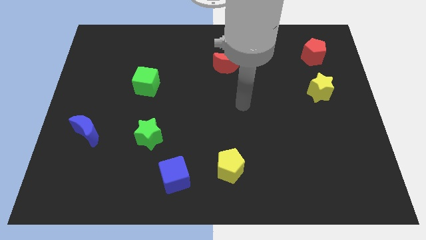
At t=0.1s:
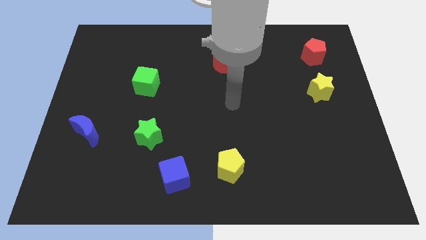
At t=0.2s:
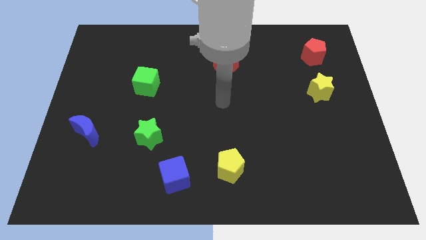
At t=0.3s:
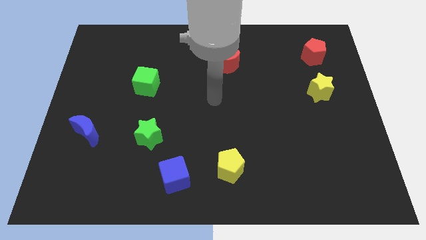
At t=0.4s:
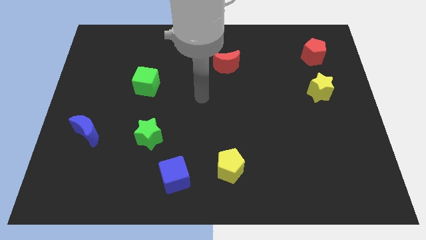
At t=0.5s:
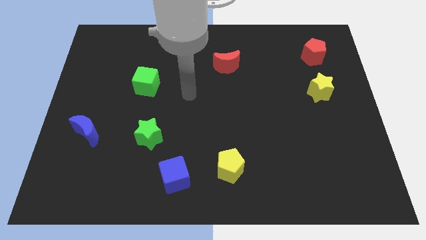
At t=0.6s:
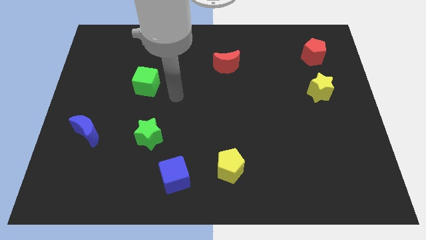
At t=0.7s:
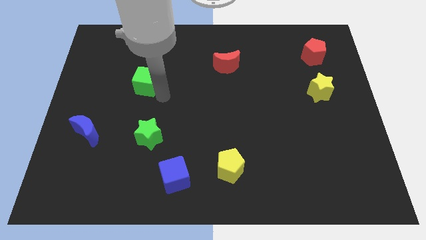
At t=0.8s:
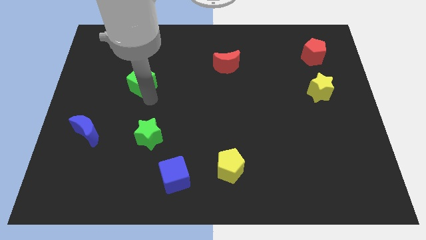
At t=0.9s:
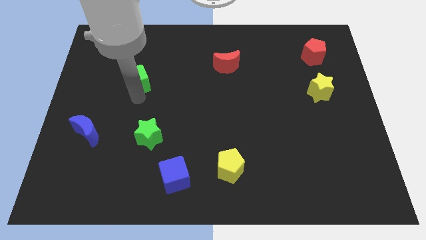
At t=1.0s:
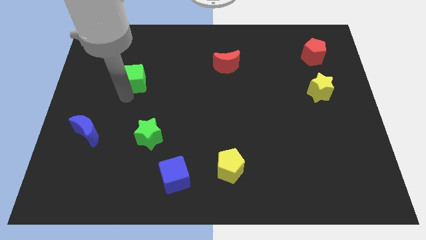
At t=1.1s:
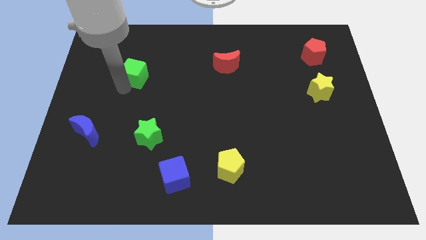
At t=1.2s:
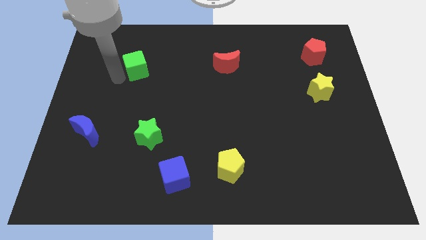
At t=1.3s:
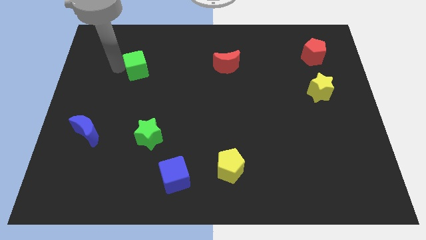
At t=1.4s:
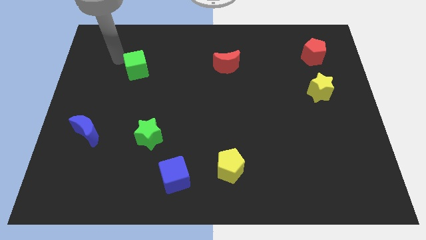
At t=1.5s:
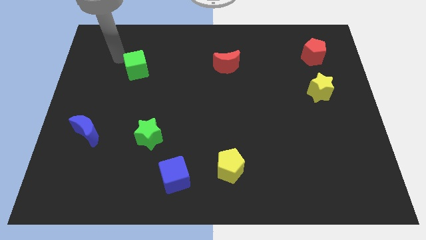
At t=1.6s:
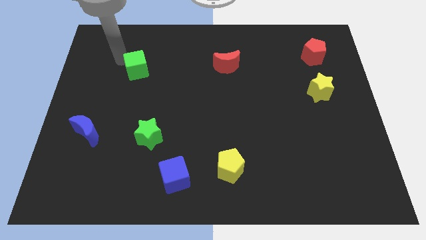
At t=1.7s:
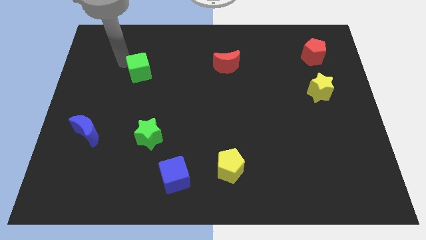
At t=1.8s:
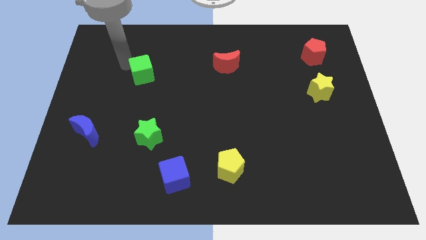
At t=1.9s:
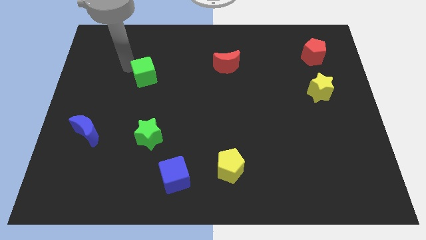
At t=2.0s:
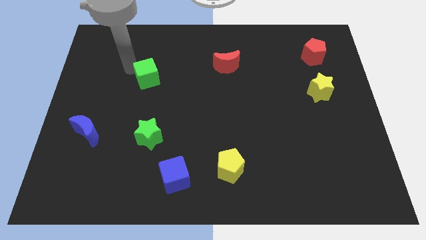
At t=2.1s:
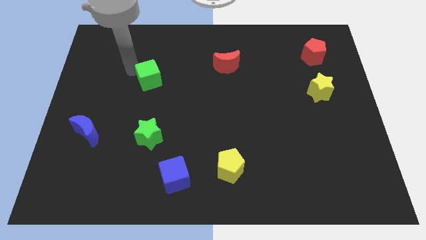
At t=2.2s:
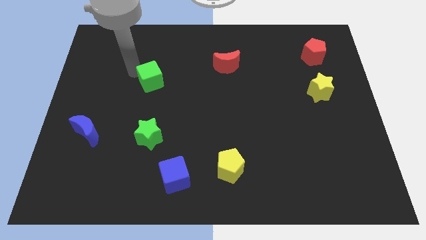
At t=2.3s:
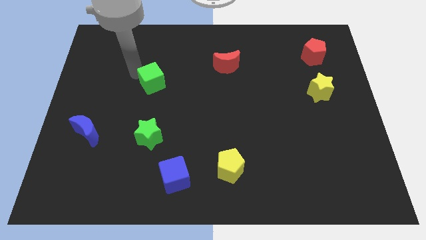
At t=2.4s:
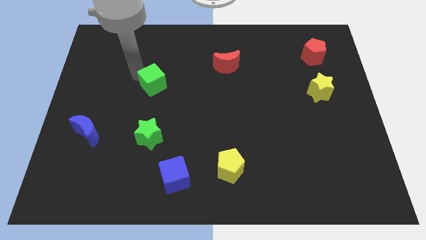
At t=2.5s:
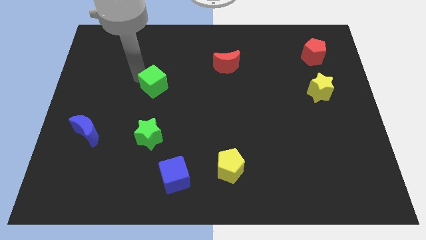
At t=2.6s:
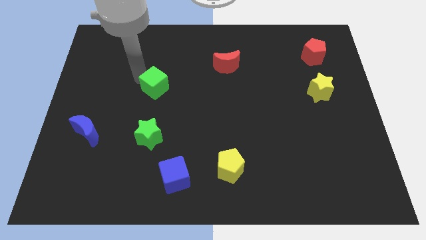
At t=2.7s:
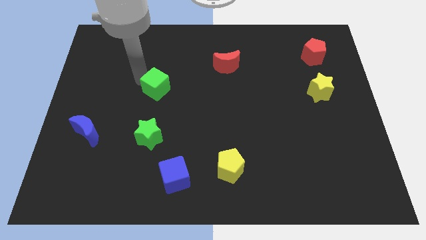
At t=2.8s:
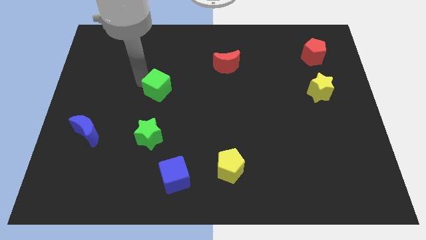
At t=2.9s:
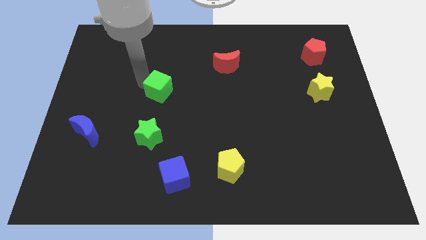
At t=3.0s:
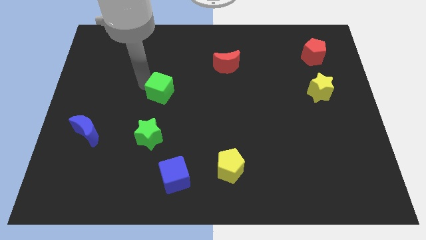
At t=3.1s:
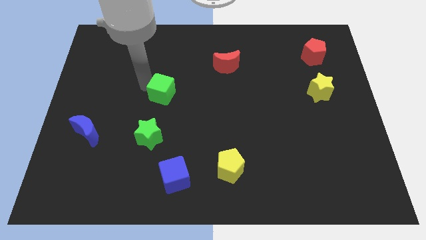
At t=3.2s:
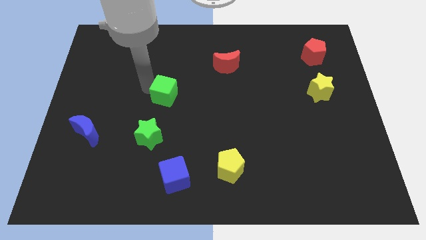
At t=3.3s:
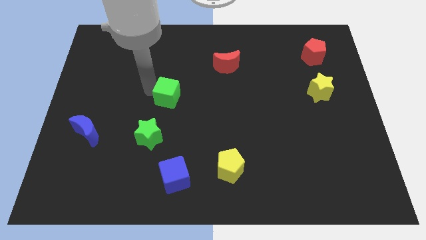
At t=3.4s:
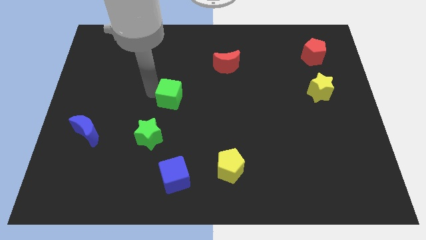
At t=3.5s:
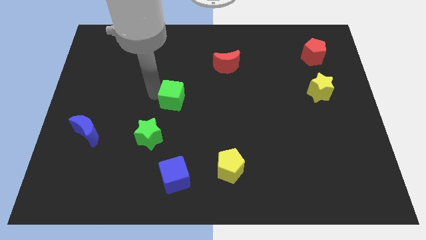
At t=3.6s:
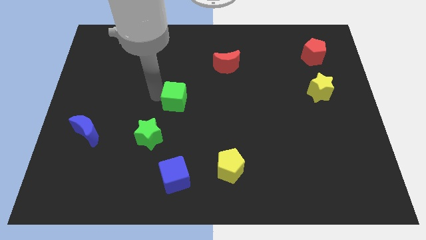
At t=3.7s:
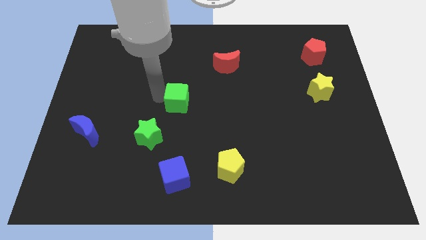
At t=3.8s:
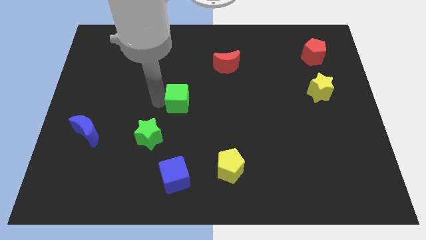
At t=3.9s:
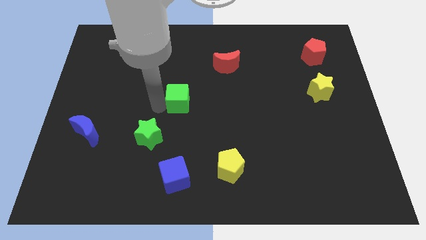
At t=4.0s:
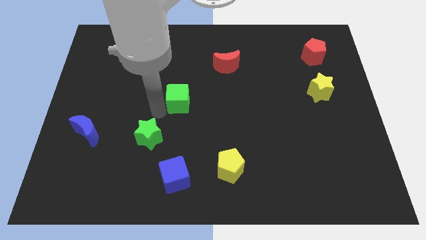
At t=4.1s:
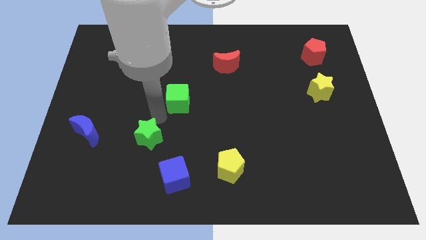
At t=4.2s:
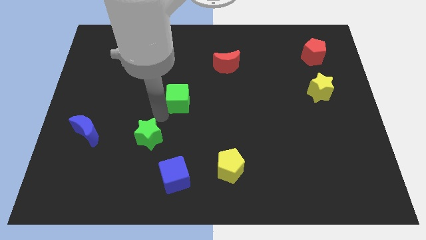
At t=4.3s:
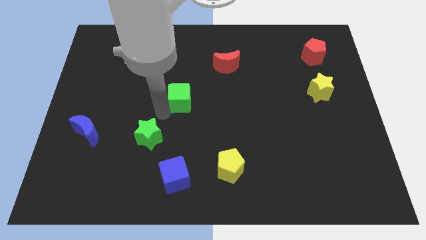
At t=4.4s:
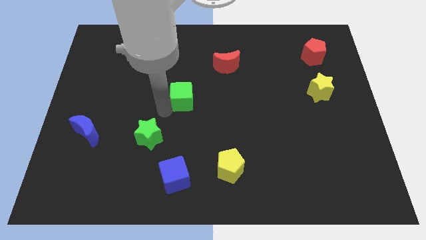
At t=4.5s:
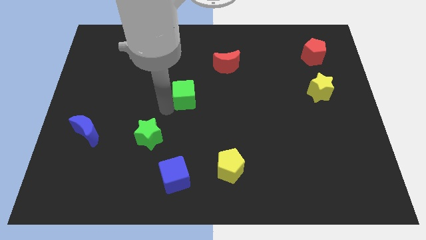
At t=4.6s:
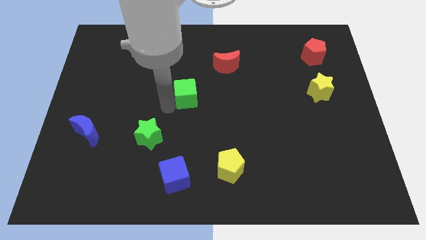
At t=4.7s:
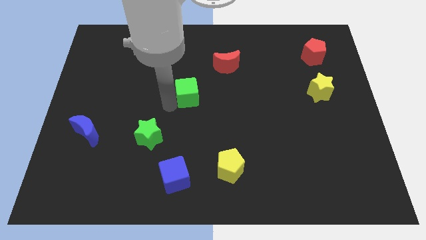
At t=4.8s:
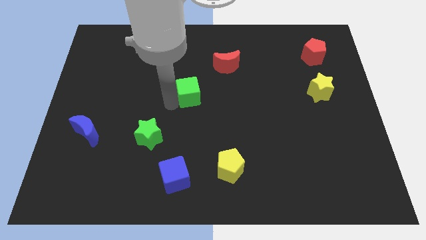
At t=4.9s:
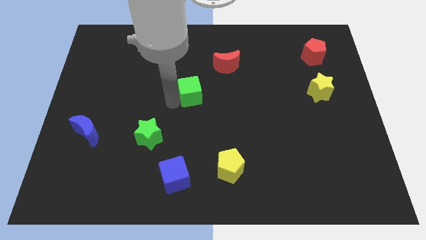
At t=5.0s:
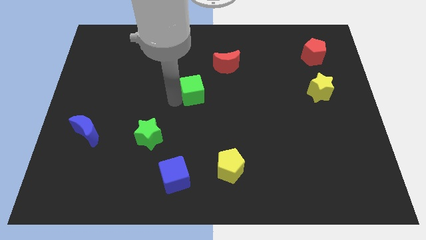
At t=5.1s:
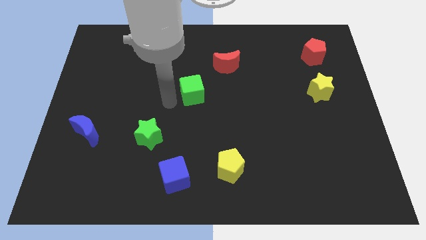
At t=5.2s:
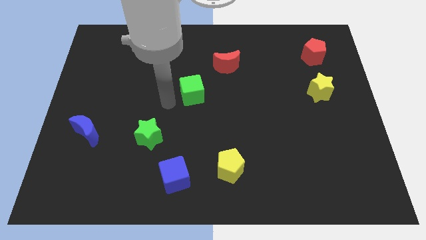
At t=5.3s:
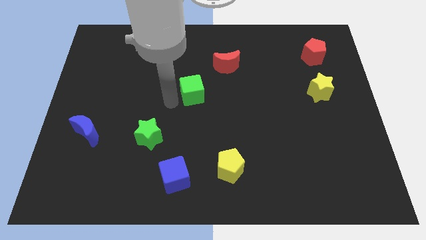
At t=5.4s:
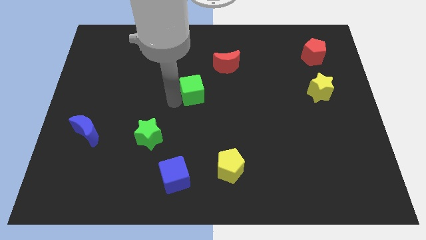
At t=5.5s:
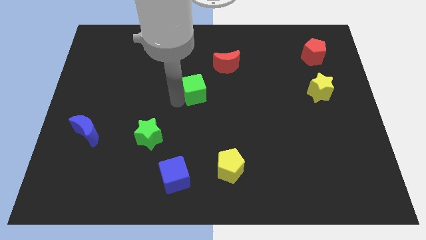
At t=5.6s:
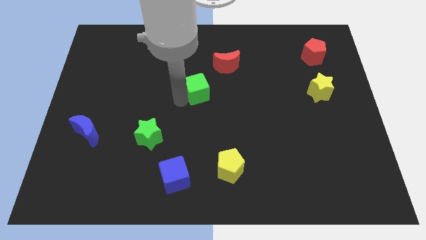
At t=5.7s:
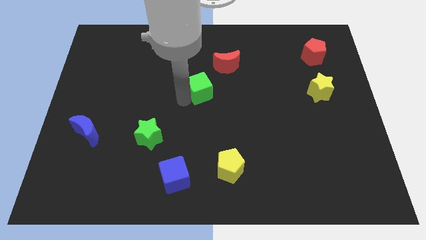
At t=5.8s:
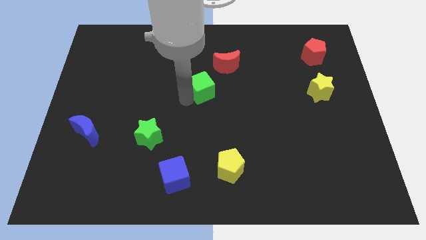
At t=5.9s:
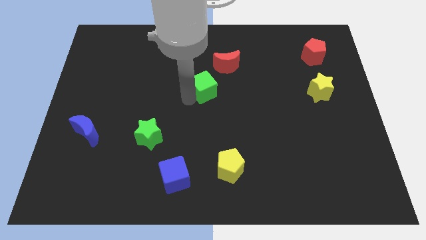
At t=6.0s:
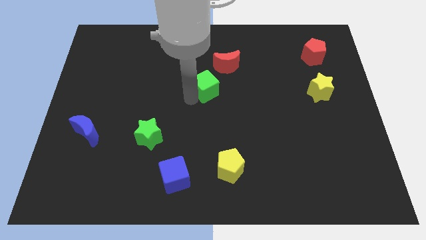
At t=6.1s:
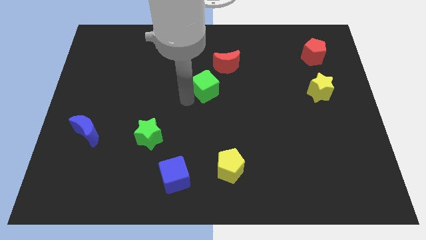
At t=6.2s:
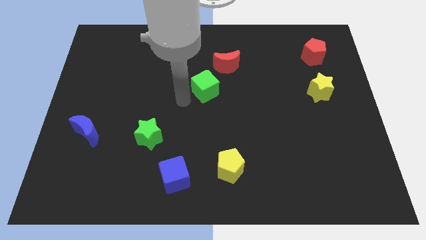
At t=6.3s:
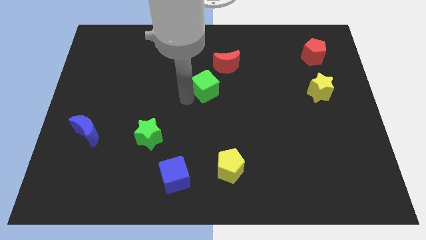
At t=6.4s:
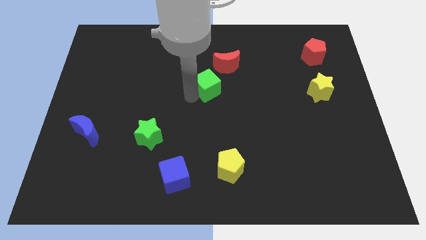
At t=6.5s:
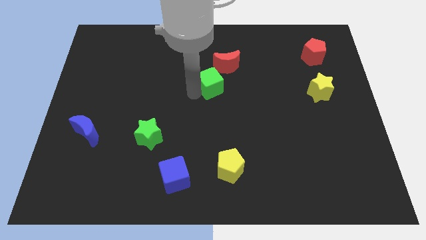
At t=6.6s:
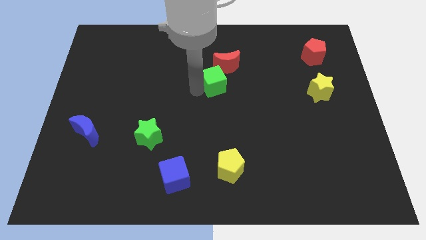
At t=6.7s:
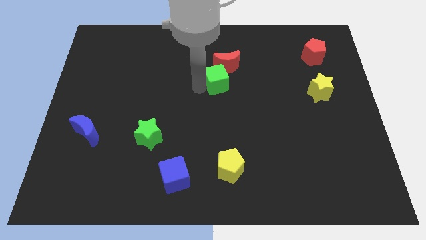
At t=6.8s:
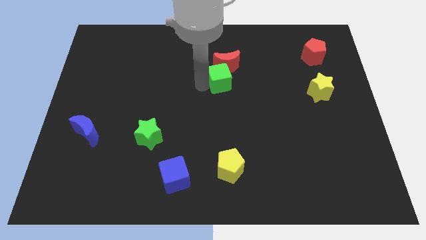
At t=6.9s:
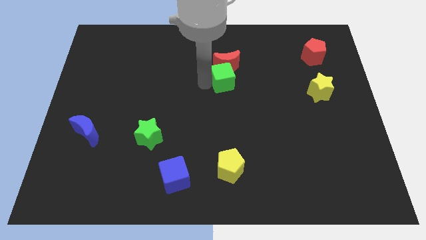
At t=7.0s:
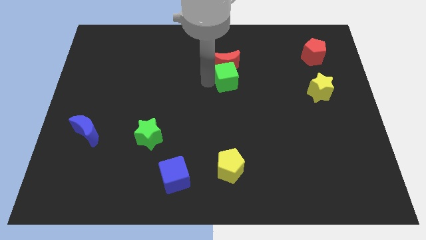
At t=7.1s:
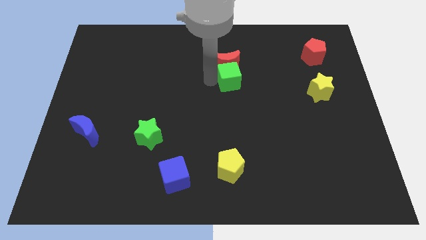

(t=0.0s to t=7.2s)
slide the green cube right

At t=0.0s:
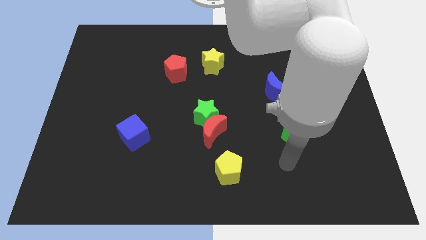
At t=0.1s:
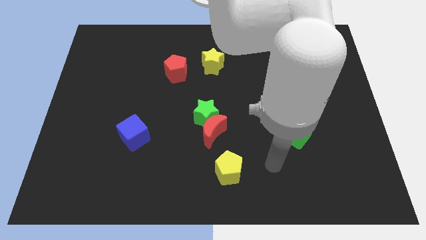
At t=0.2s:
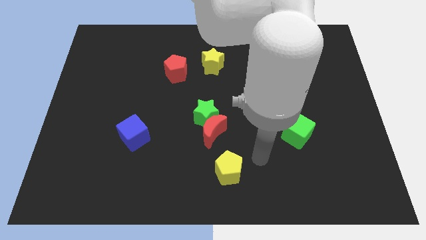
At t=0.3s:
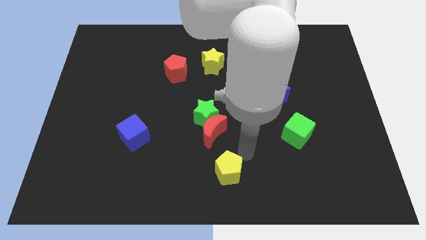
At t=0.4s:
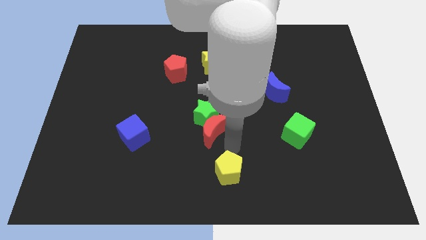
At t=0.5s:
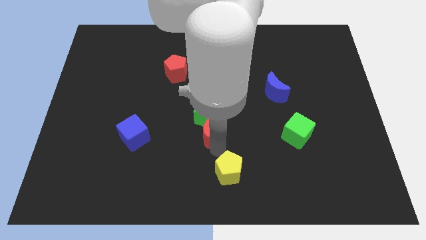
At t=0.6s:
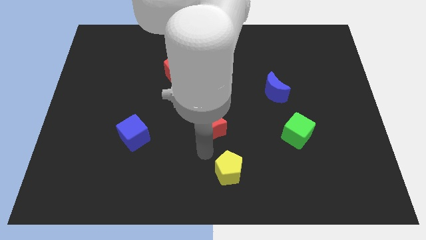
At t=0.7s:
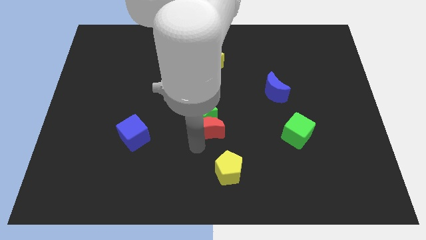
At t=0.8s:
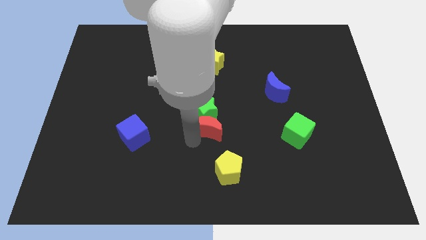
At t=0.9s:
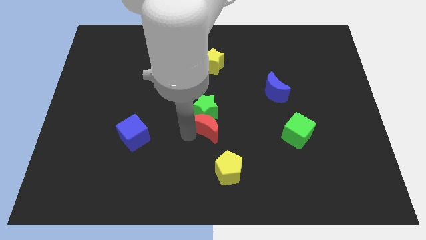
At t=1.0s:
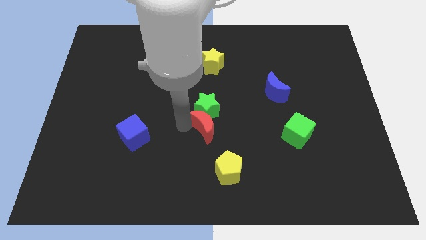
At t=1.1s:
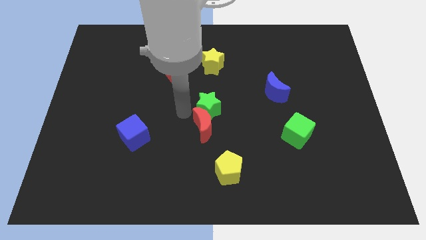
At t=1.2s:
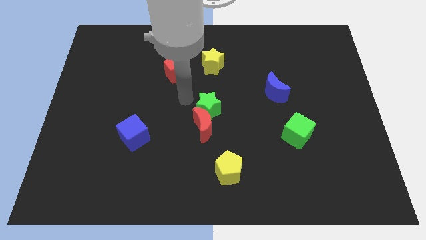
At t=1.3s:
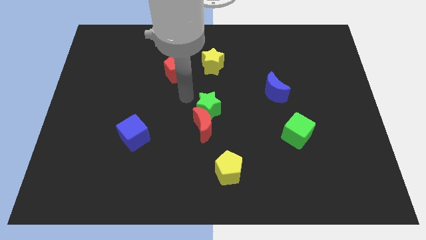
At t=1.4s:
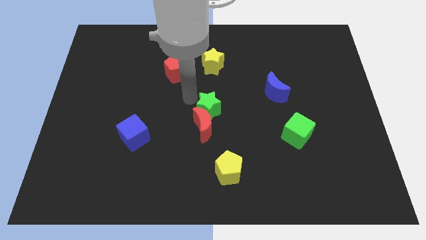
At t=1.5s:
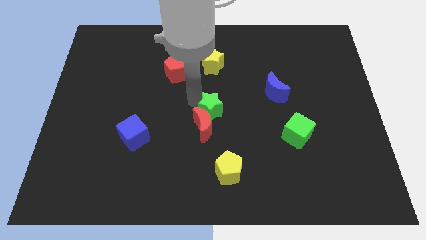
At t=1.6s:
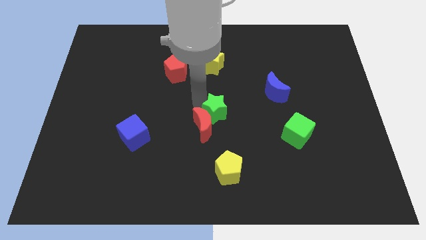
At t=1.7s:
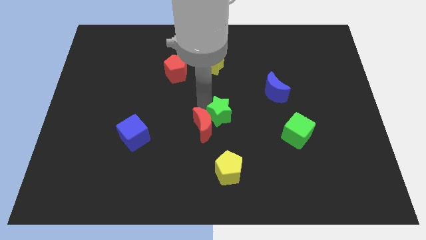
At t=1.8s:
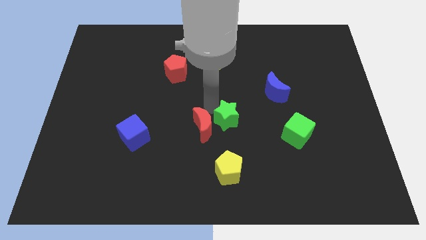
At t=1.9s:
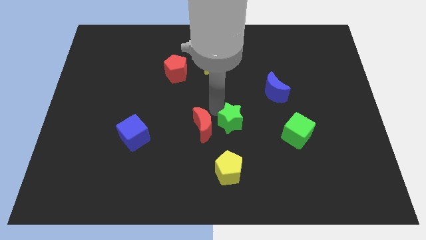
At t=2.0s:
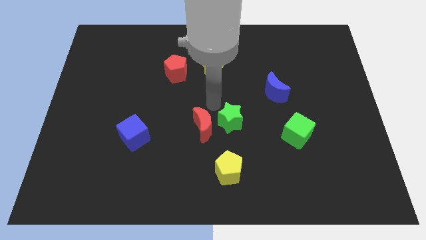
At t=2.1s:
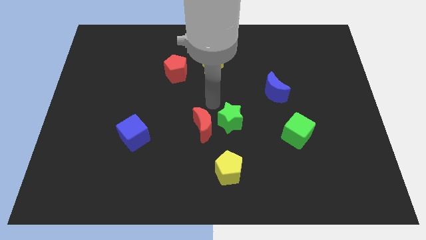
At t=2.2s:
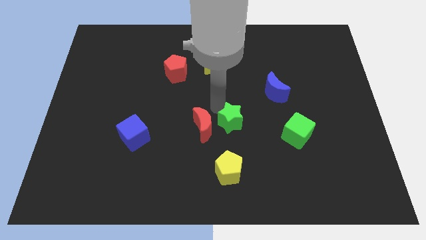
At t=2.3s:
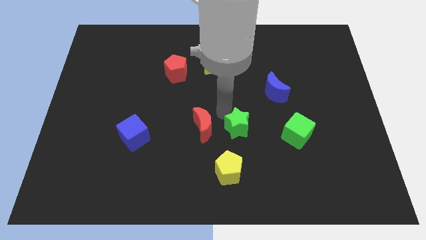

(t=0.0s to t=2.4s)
slide the green star down and then to the right slightly
